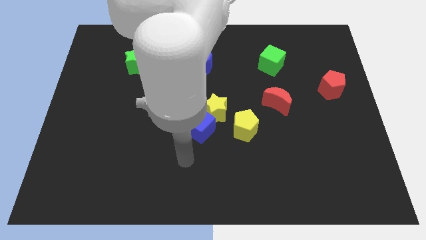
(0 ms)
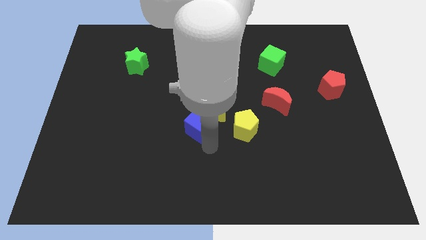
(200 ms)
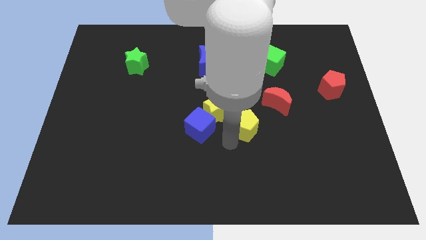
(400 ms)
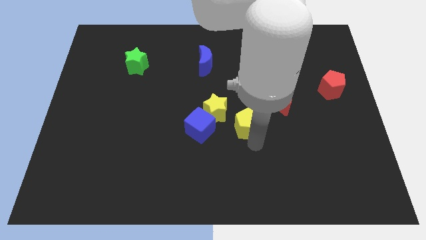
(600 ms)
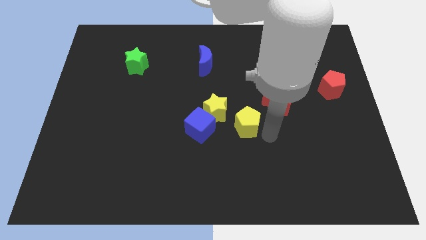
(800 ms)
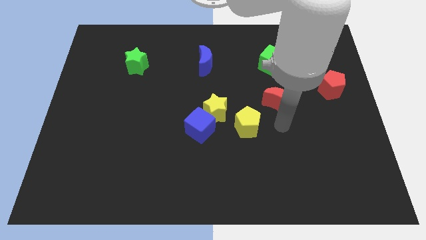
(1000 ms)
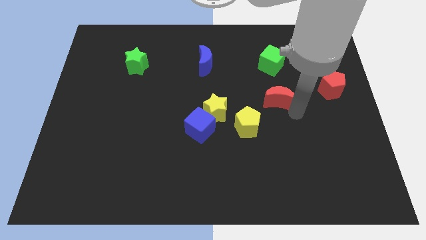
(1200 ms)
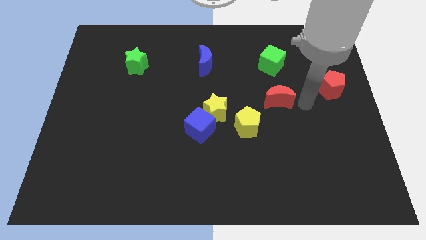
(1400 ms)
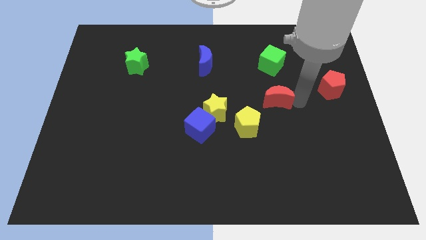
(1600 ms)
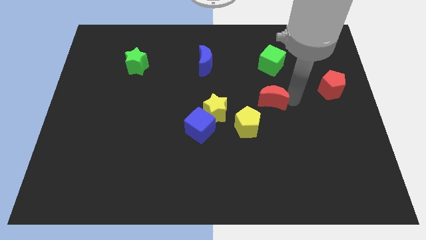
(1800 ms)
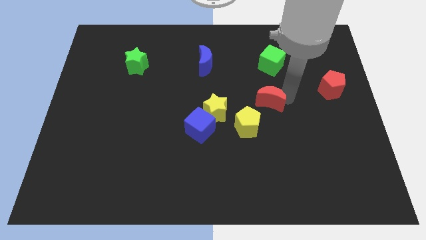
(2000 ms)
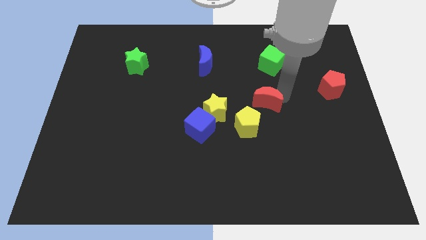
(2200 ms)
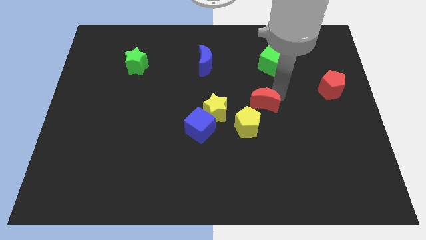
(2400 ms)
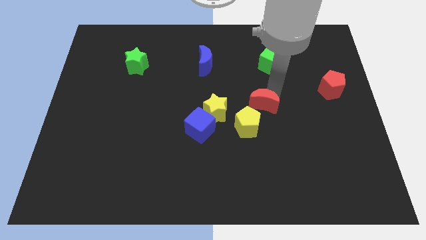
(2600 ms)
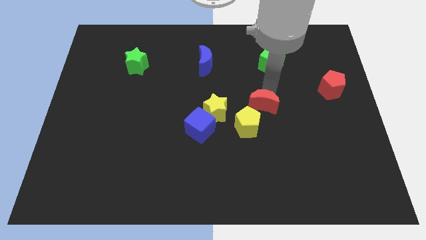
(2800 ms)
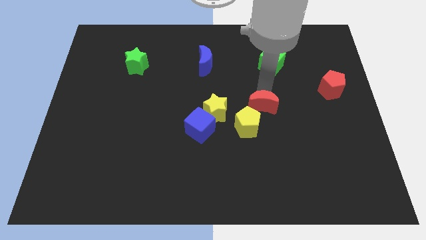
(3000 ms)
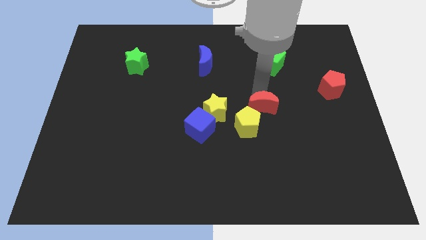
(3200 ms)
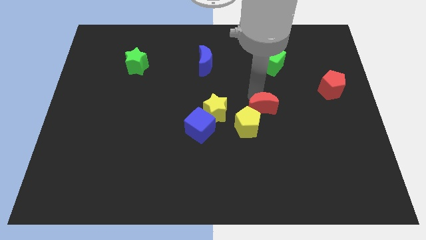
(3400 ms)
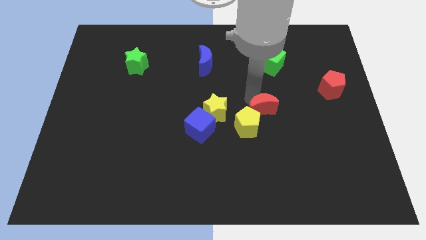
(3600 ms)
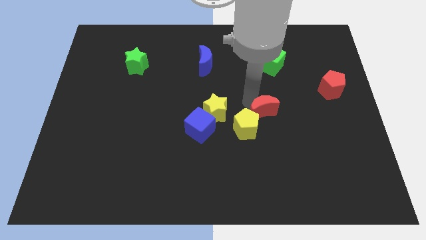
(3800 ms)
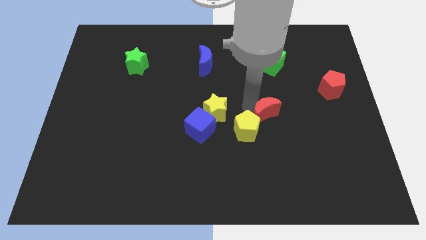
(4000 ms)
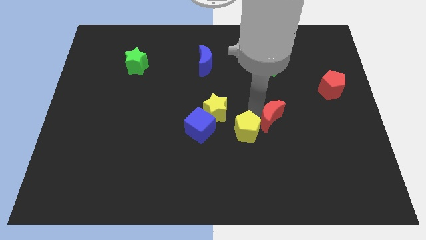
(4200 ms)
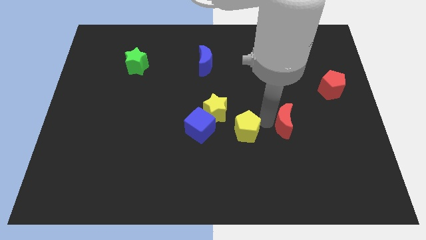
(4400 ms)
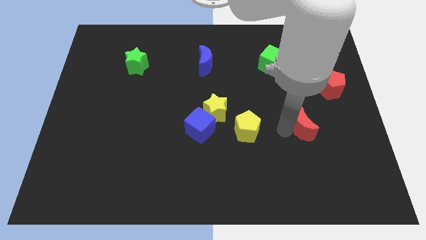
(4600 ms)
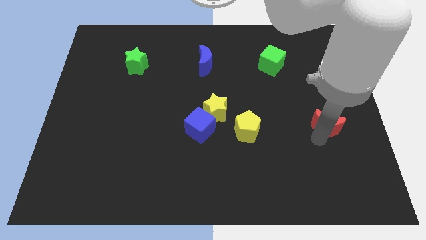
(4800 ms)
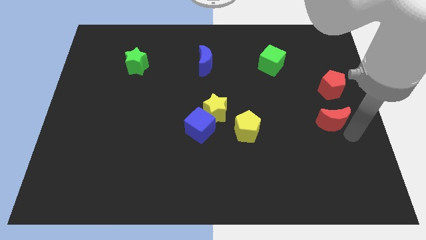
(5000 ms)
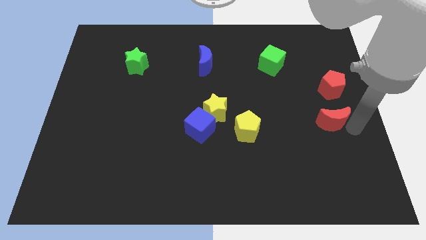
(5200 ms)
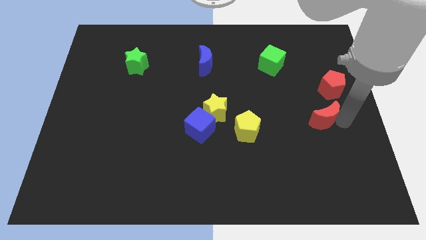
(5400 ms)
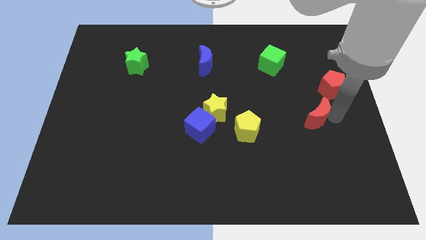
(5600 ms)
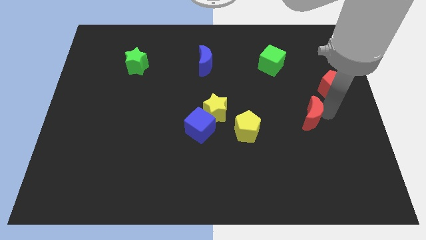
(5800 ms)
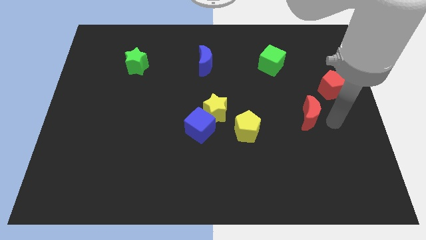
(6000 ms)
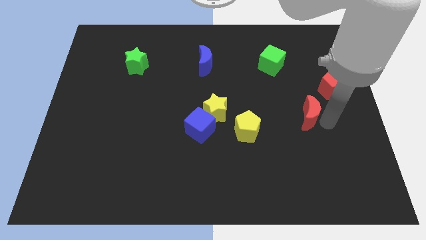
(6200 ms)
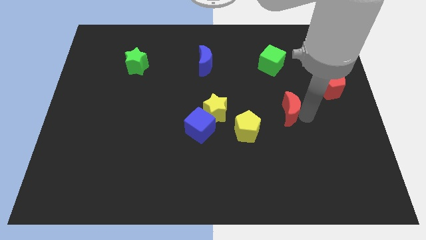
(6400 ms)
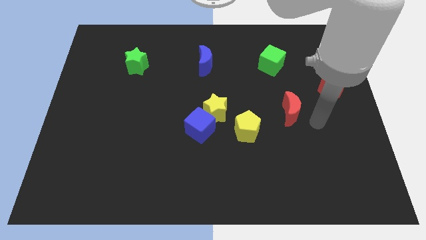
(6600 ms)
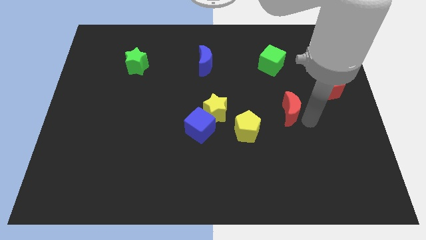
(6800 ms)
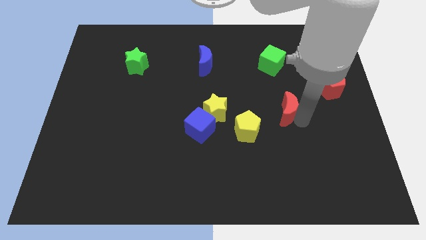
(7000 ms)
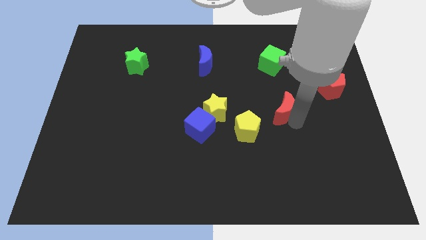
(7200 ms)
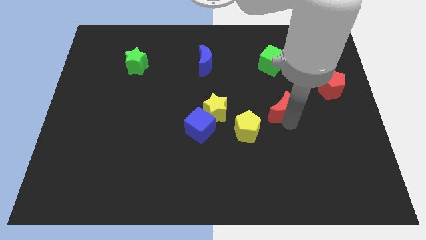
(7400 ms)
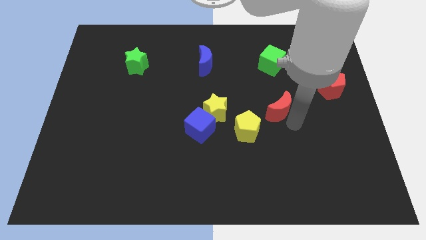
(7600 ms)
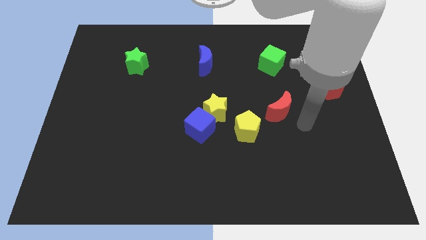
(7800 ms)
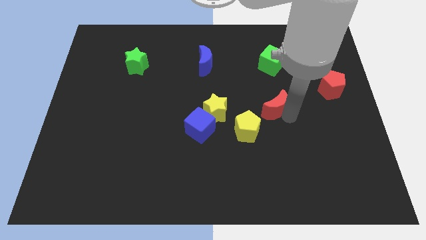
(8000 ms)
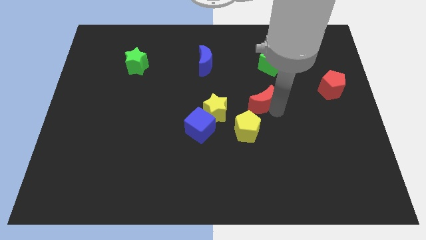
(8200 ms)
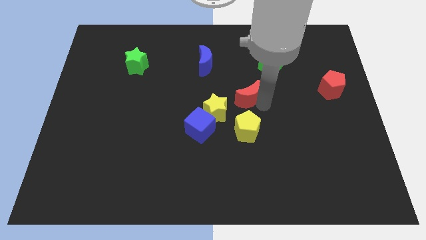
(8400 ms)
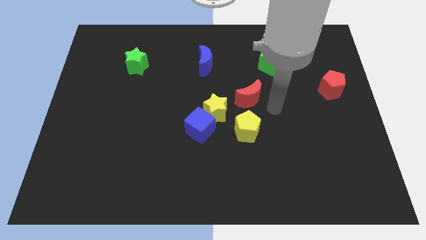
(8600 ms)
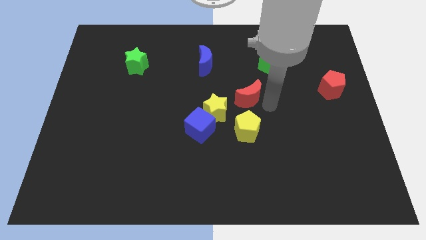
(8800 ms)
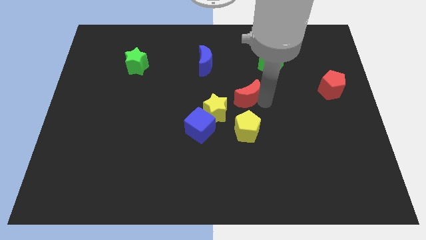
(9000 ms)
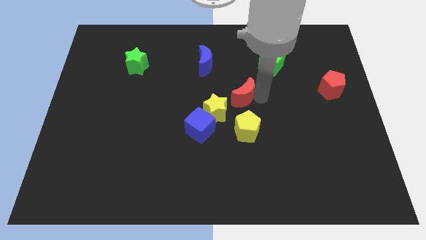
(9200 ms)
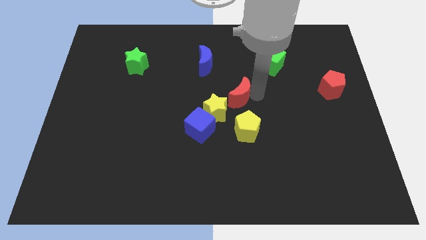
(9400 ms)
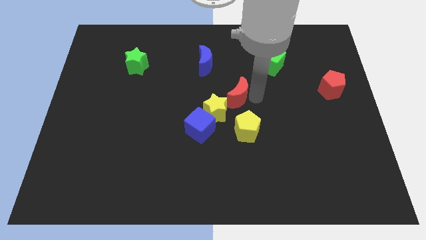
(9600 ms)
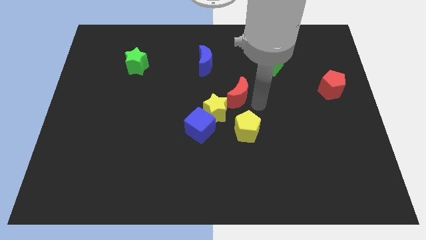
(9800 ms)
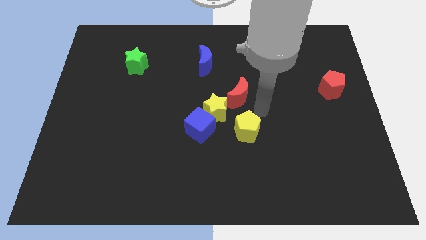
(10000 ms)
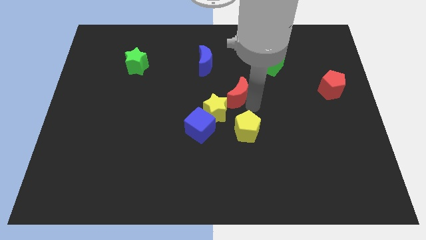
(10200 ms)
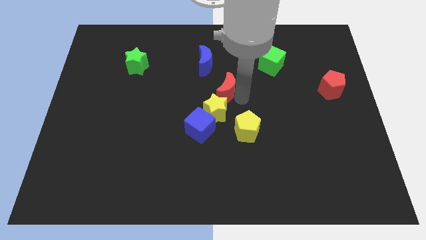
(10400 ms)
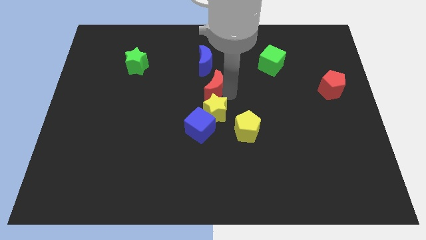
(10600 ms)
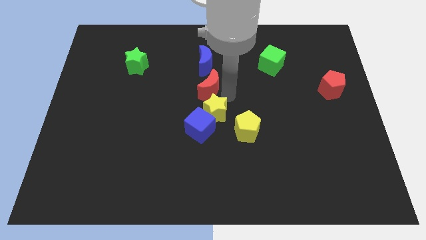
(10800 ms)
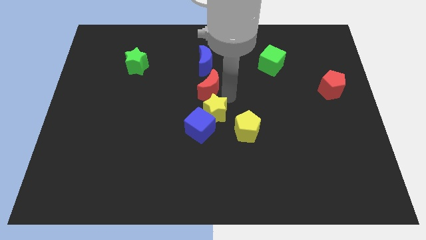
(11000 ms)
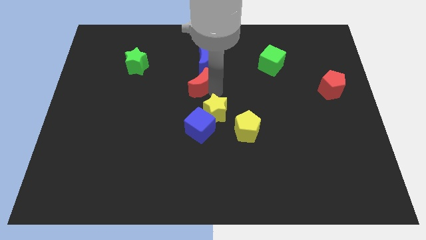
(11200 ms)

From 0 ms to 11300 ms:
put the red moon diagonally down and to the left of the blue moon

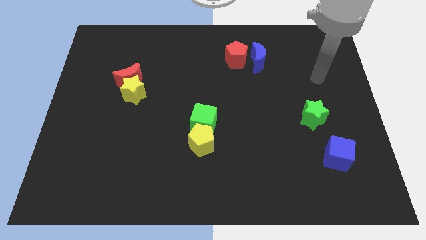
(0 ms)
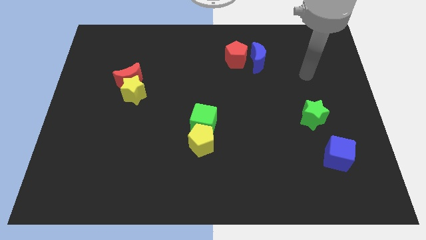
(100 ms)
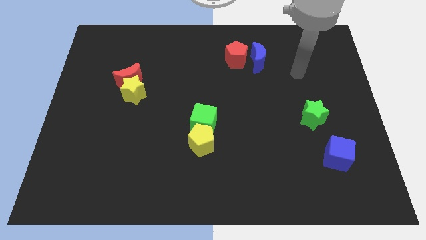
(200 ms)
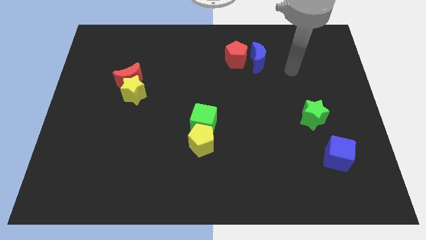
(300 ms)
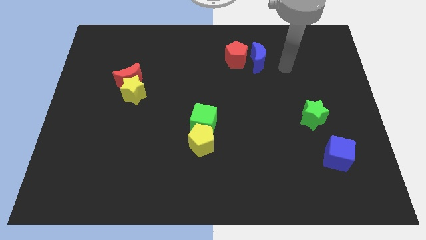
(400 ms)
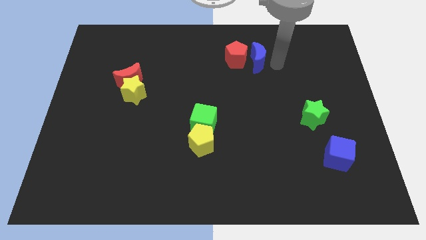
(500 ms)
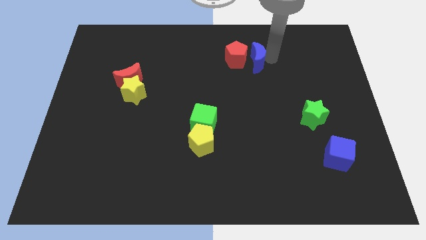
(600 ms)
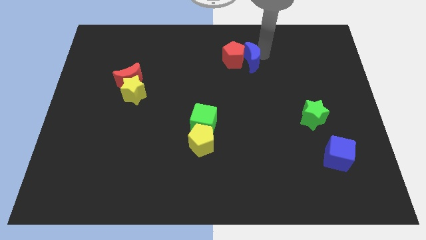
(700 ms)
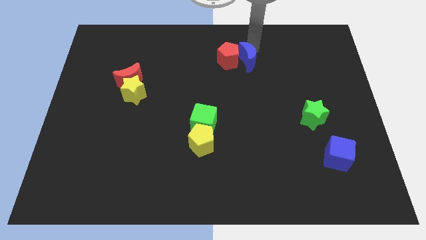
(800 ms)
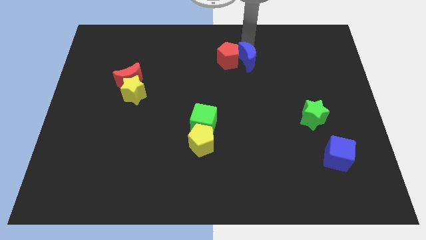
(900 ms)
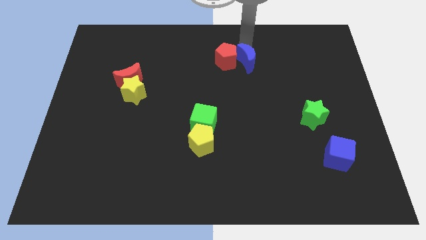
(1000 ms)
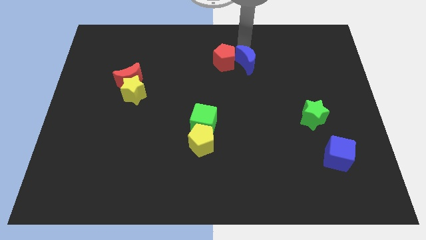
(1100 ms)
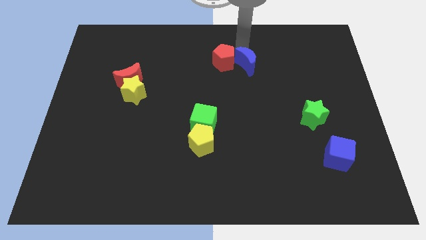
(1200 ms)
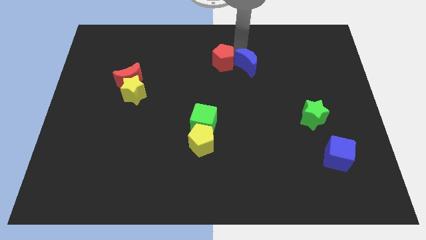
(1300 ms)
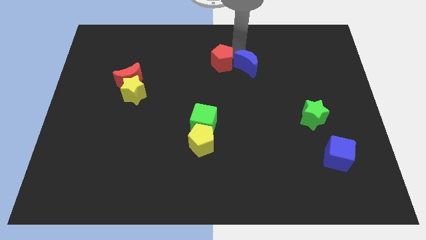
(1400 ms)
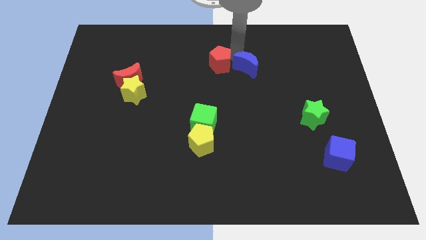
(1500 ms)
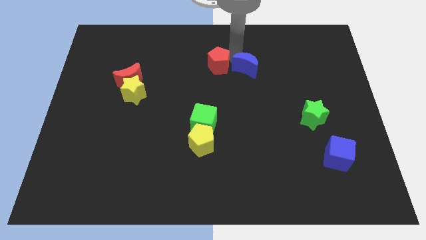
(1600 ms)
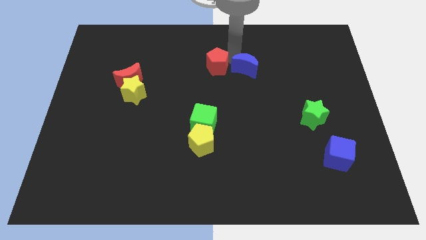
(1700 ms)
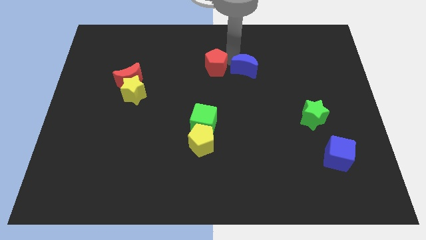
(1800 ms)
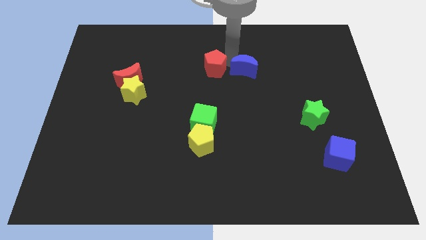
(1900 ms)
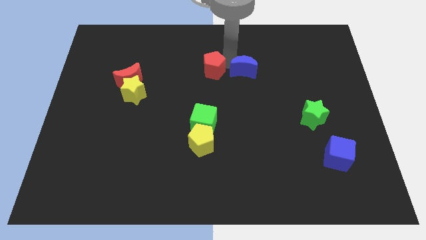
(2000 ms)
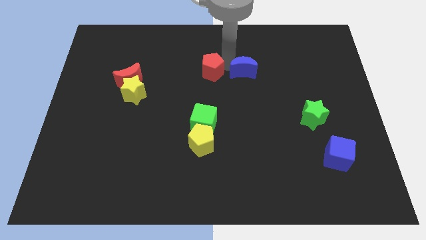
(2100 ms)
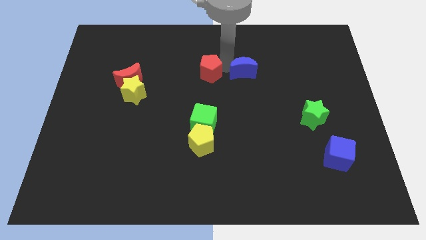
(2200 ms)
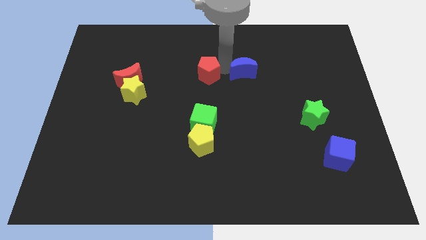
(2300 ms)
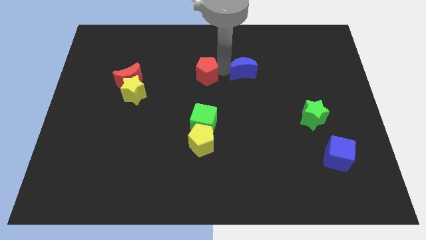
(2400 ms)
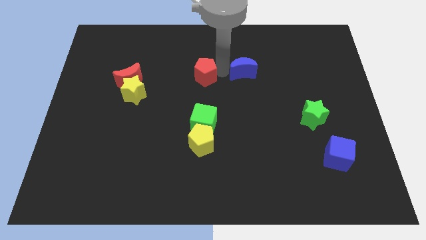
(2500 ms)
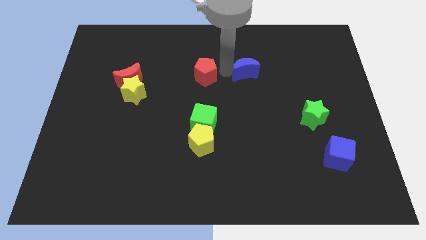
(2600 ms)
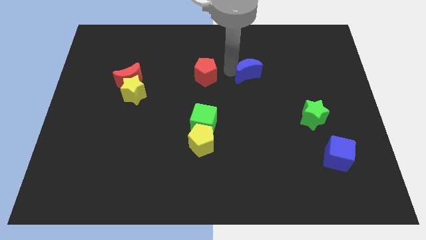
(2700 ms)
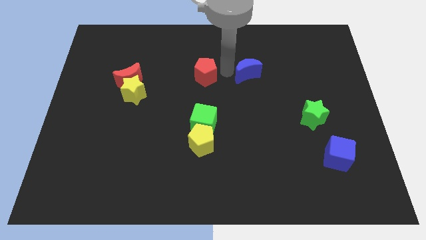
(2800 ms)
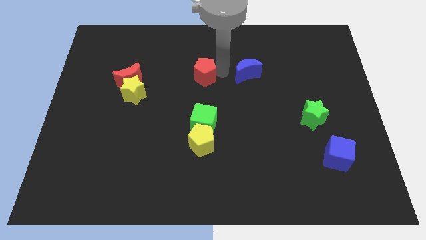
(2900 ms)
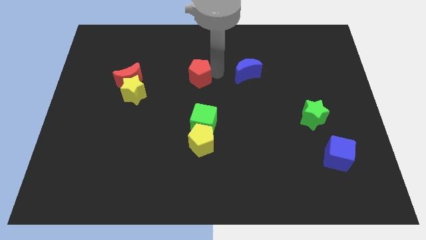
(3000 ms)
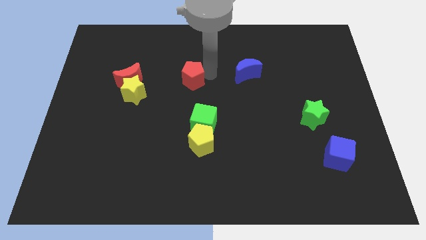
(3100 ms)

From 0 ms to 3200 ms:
move the red pentagon to the right of the red moon
